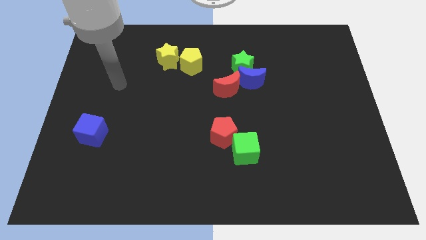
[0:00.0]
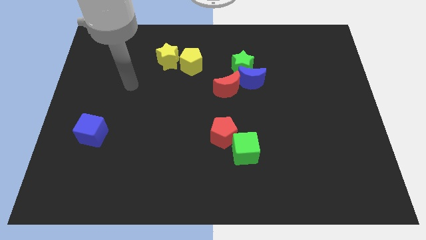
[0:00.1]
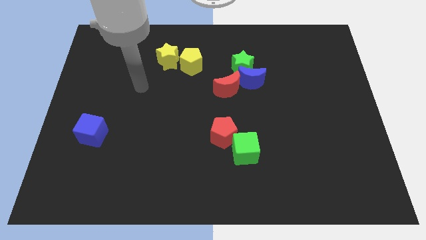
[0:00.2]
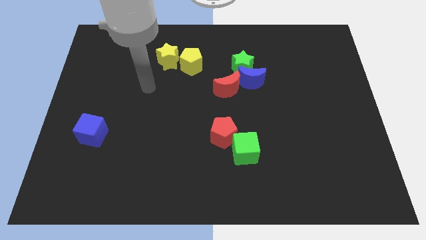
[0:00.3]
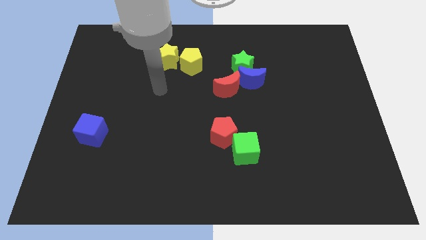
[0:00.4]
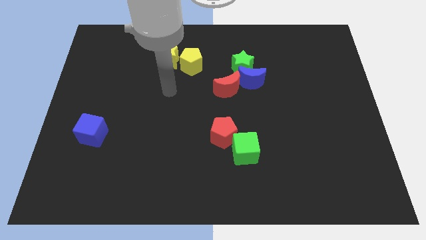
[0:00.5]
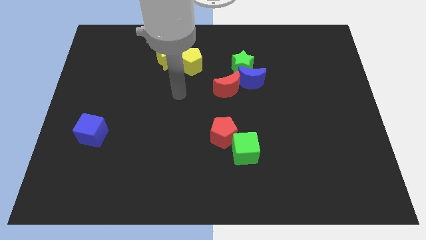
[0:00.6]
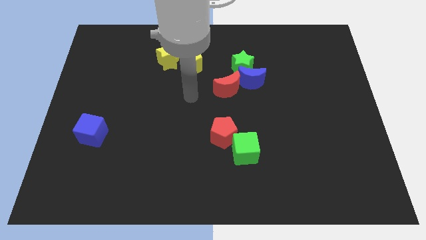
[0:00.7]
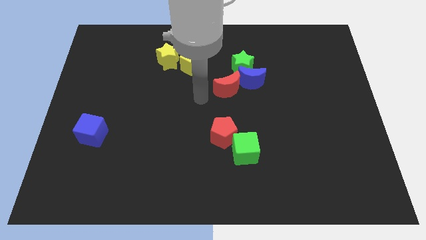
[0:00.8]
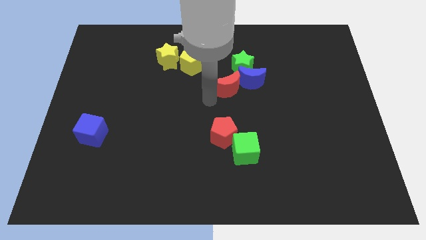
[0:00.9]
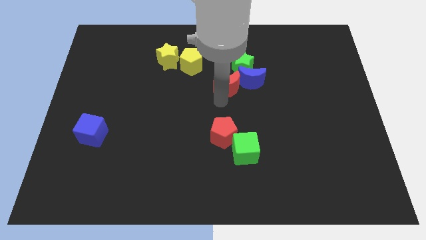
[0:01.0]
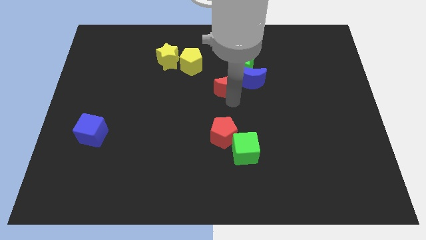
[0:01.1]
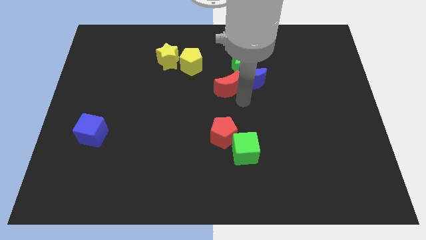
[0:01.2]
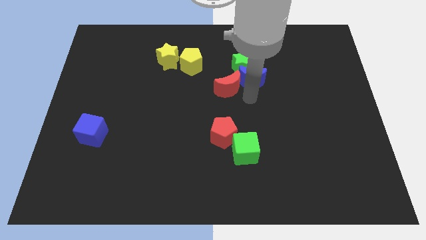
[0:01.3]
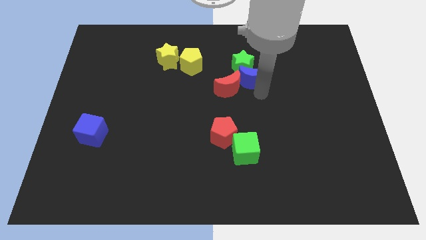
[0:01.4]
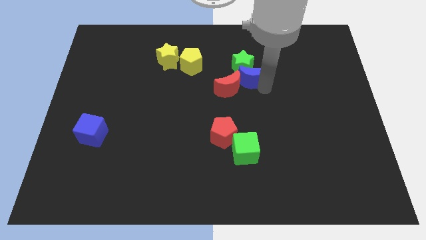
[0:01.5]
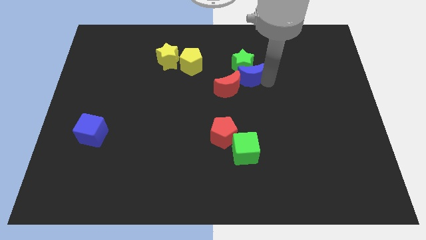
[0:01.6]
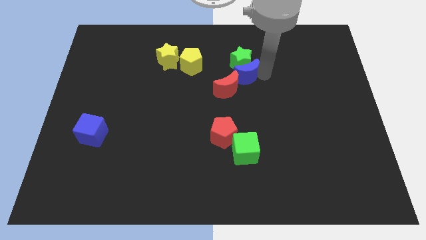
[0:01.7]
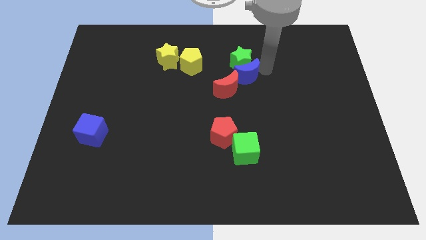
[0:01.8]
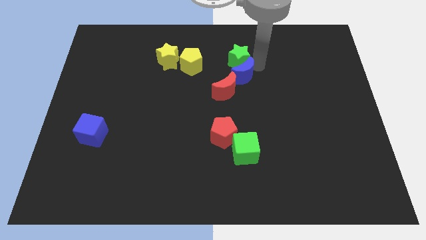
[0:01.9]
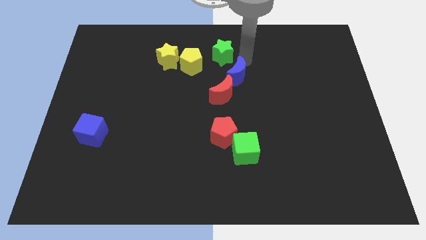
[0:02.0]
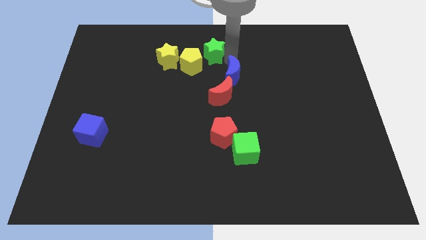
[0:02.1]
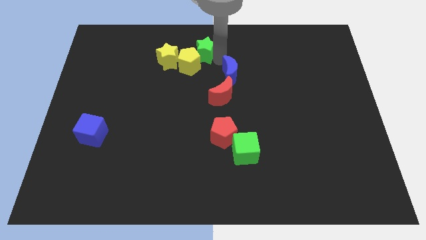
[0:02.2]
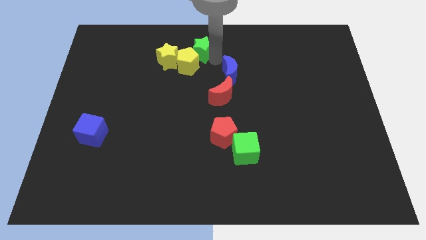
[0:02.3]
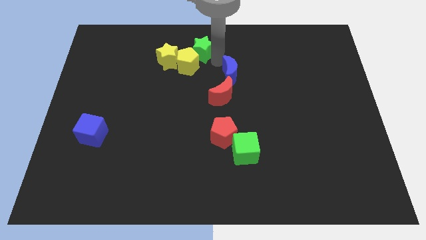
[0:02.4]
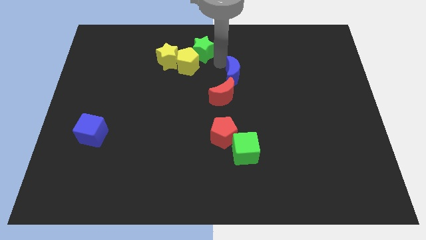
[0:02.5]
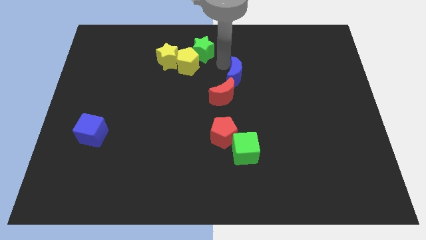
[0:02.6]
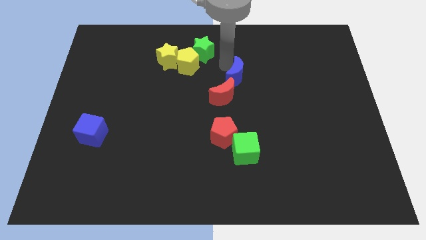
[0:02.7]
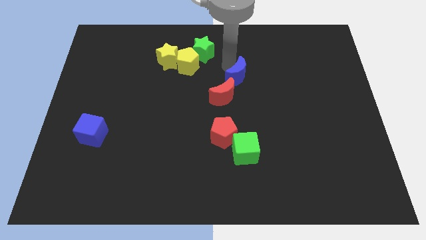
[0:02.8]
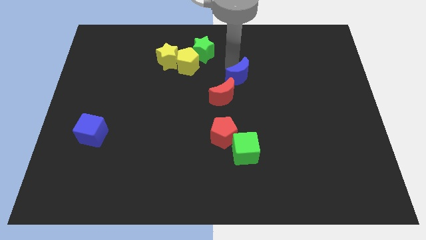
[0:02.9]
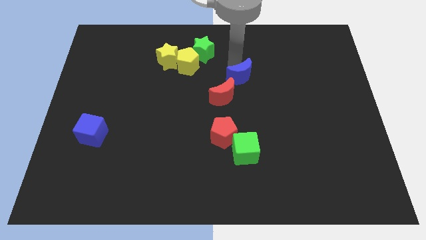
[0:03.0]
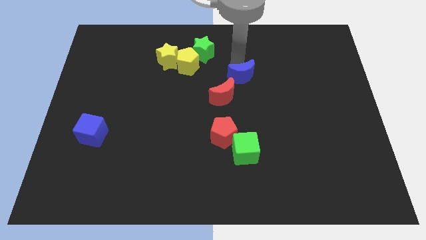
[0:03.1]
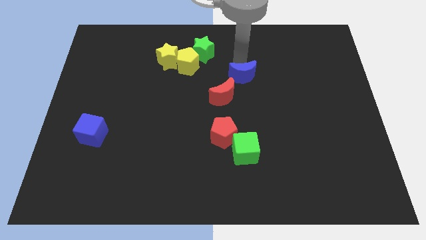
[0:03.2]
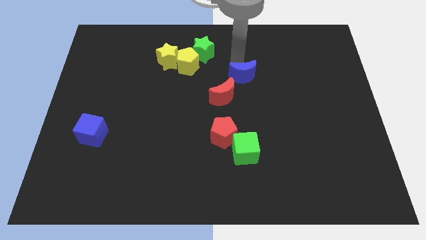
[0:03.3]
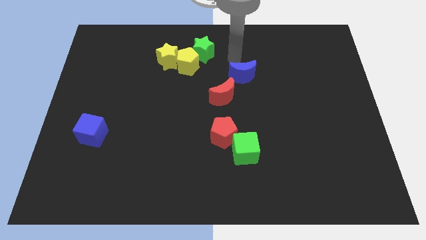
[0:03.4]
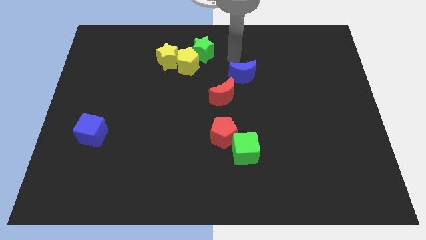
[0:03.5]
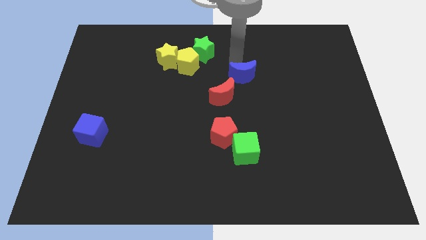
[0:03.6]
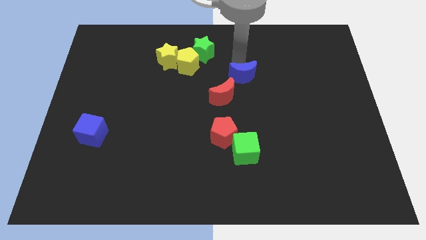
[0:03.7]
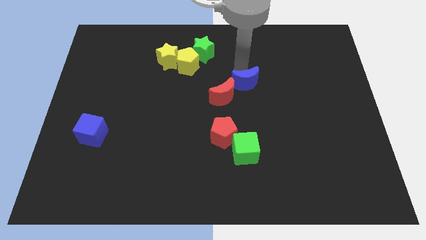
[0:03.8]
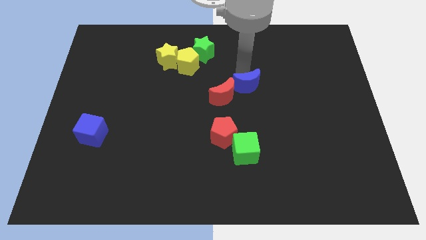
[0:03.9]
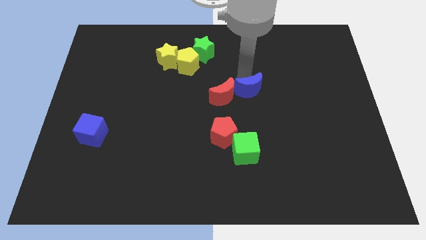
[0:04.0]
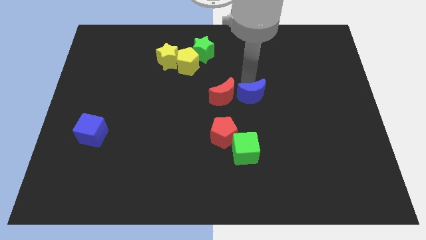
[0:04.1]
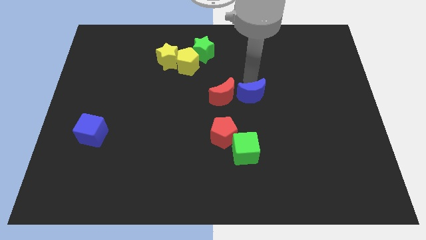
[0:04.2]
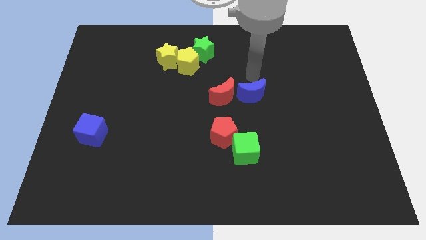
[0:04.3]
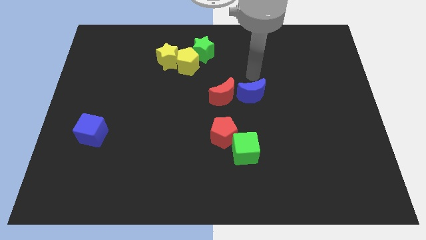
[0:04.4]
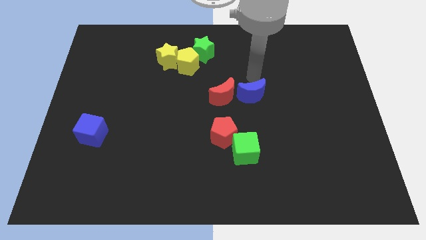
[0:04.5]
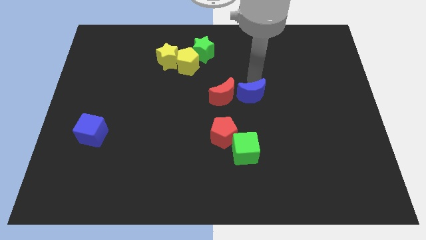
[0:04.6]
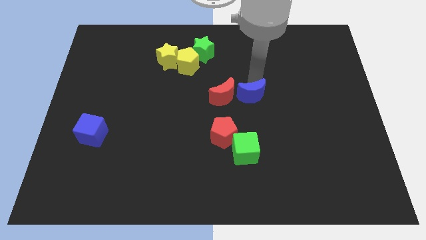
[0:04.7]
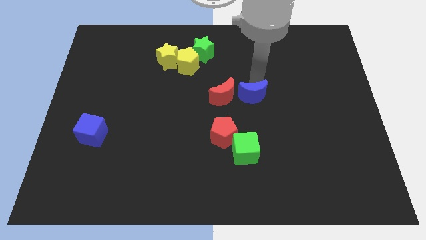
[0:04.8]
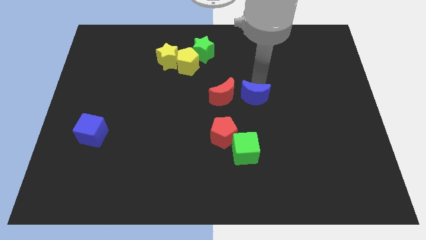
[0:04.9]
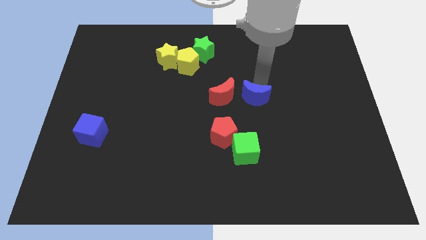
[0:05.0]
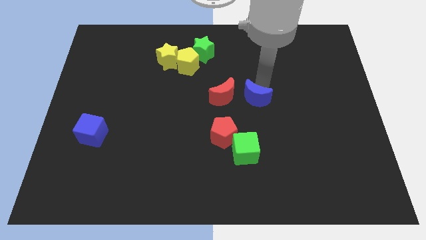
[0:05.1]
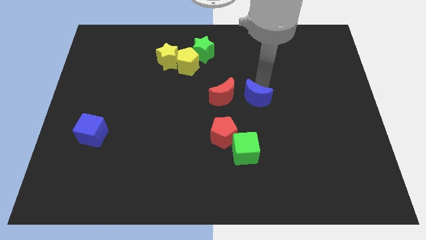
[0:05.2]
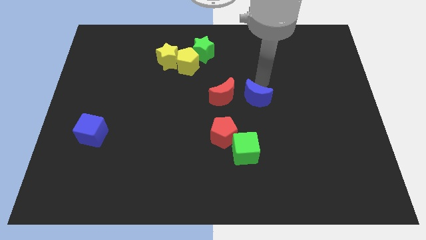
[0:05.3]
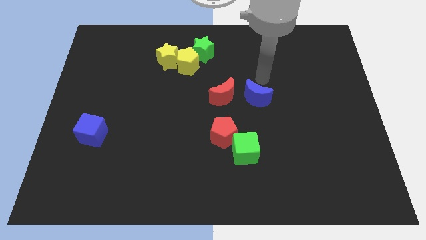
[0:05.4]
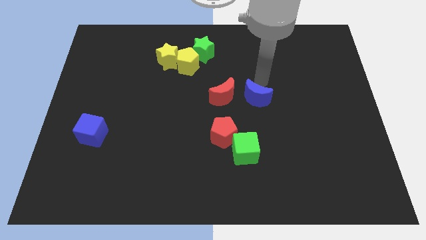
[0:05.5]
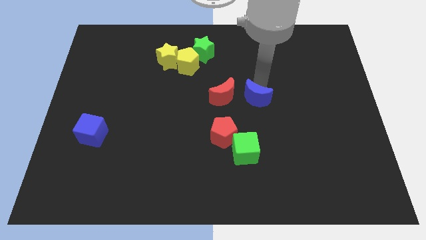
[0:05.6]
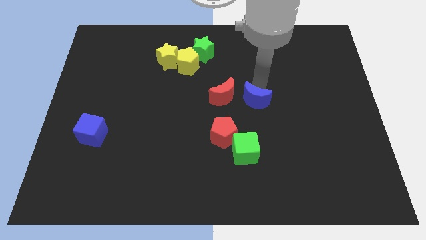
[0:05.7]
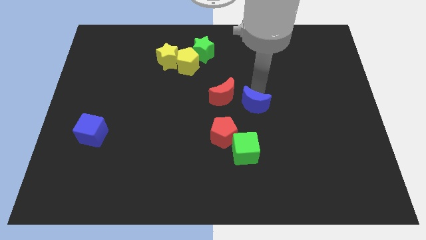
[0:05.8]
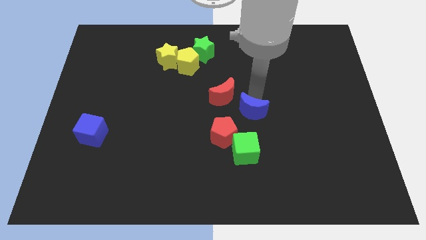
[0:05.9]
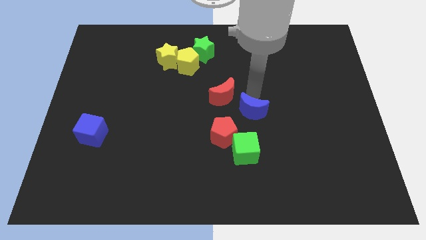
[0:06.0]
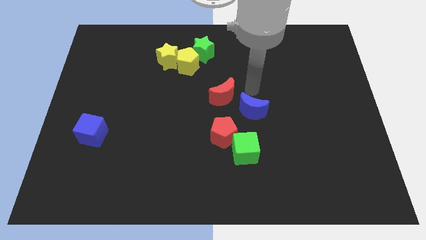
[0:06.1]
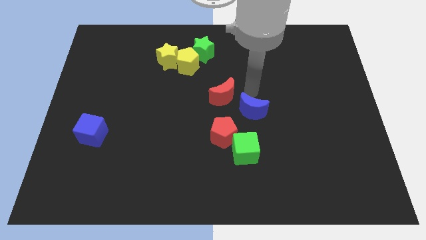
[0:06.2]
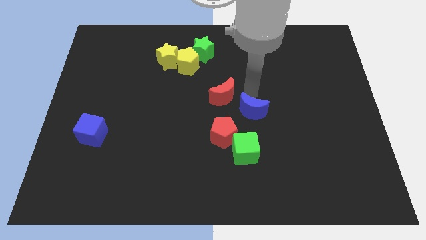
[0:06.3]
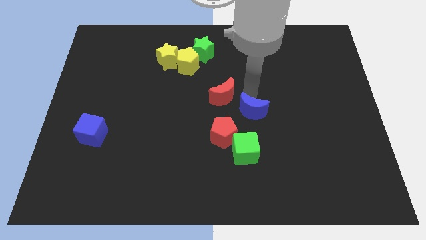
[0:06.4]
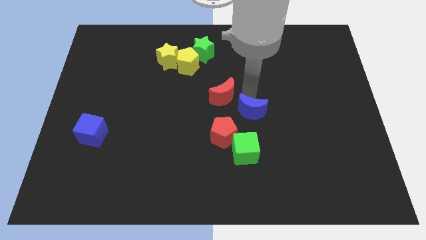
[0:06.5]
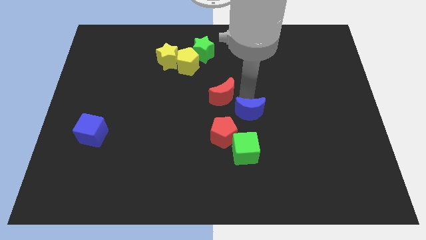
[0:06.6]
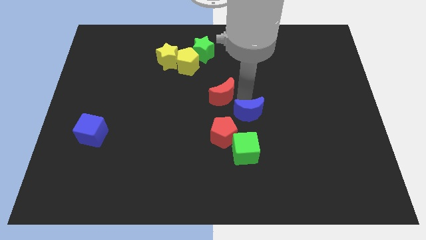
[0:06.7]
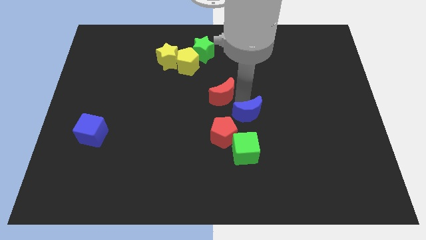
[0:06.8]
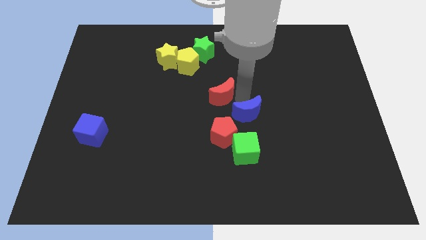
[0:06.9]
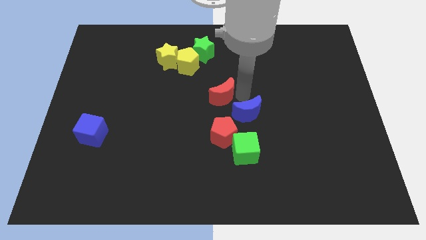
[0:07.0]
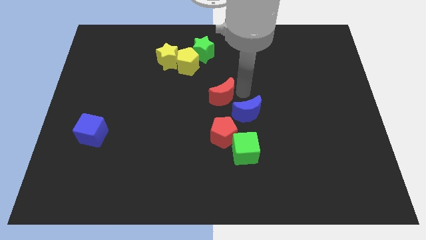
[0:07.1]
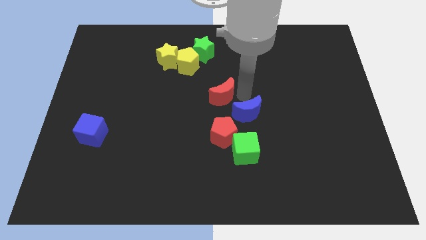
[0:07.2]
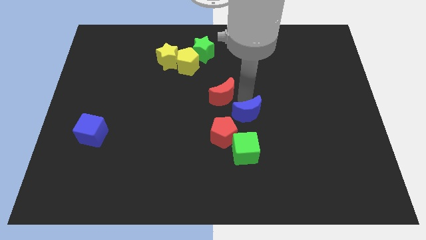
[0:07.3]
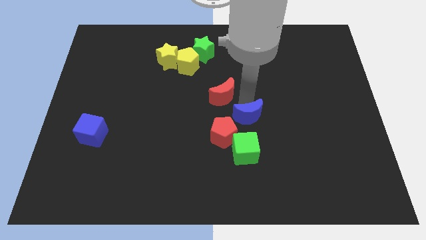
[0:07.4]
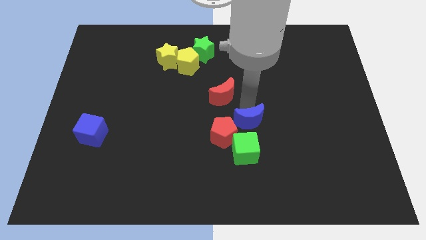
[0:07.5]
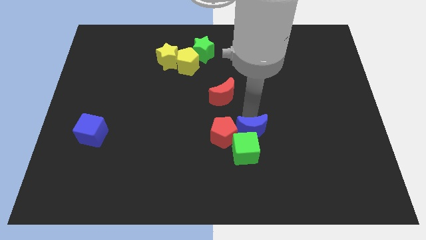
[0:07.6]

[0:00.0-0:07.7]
push the blue moon next to the green cube
